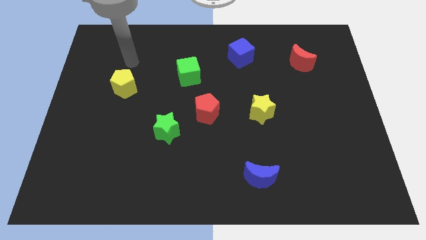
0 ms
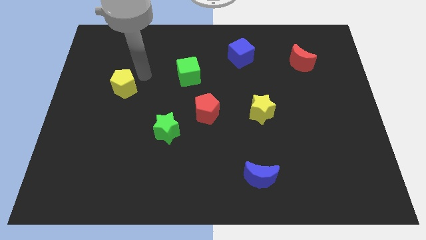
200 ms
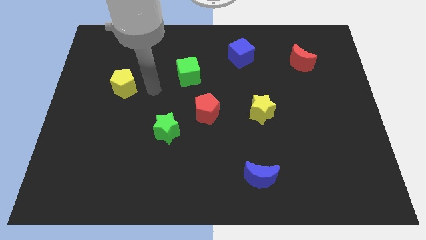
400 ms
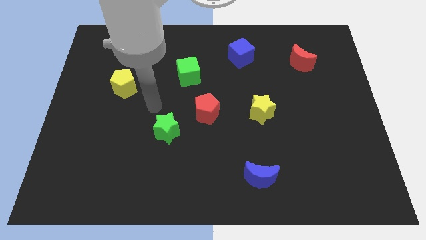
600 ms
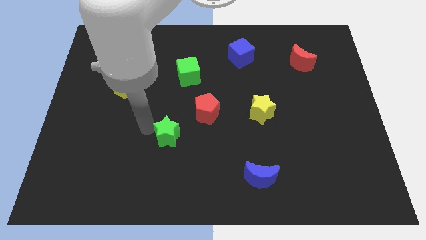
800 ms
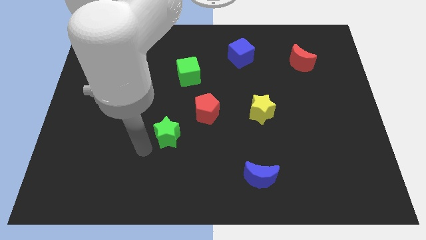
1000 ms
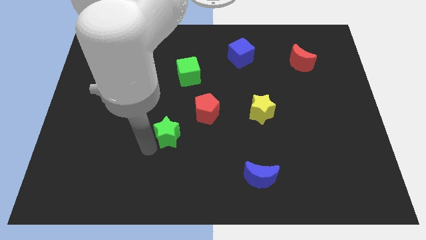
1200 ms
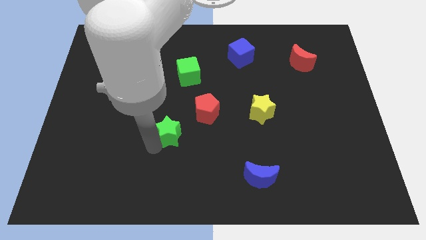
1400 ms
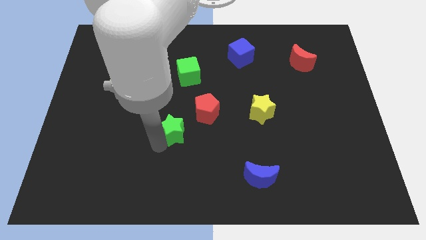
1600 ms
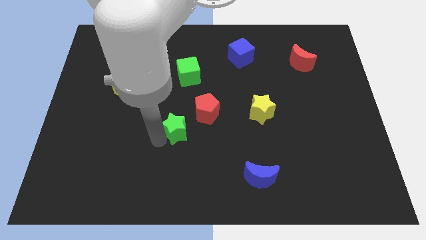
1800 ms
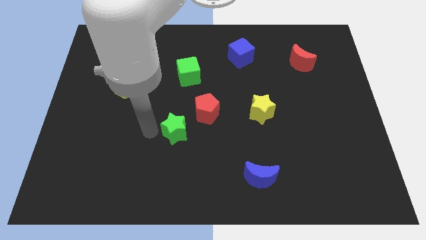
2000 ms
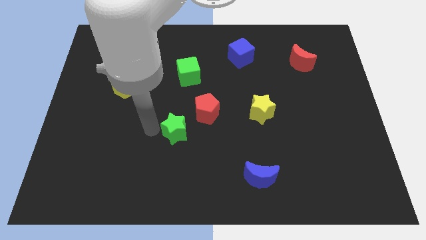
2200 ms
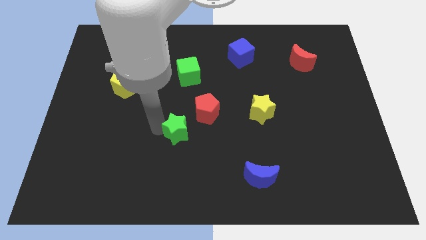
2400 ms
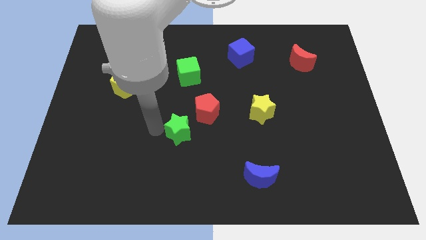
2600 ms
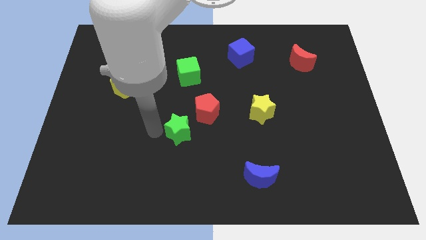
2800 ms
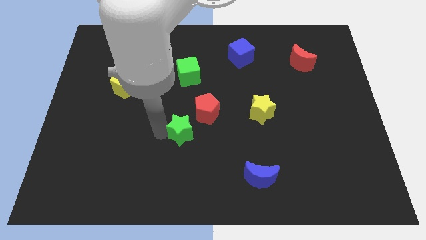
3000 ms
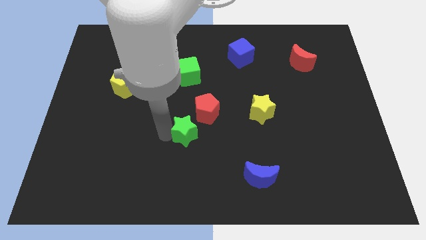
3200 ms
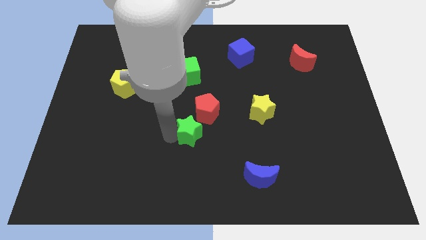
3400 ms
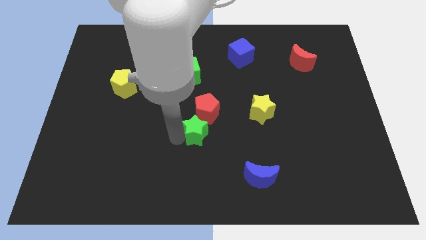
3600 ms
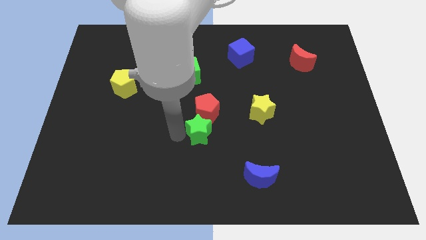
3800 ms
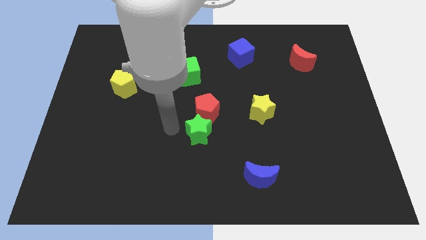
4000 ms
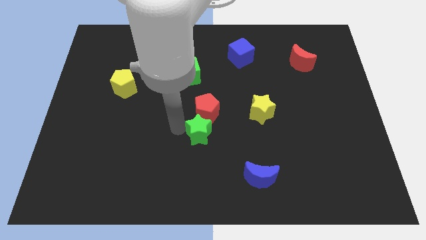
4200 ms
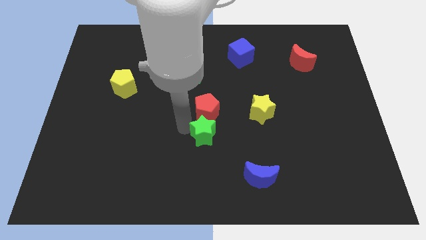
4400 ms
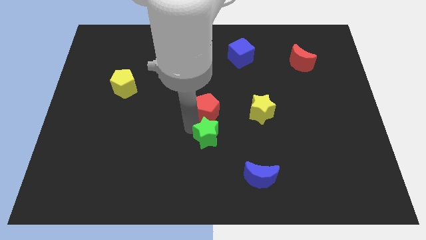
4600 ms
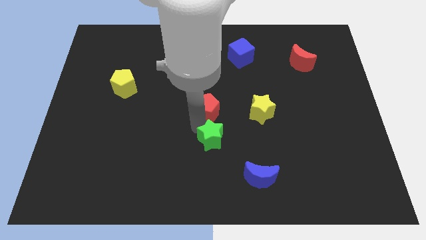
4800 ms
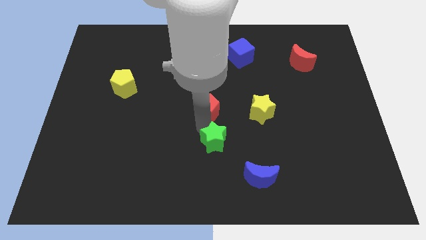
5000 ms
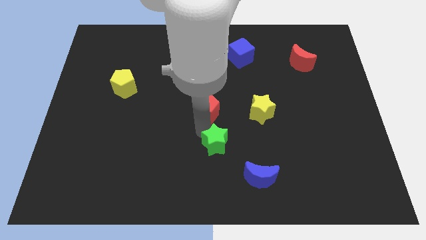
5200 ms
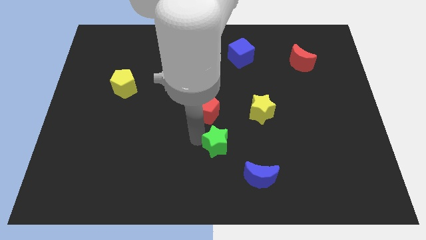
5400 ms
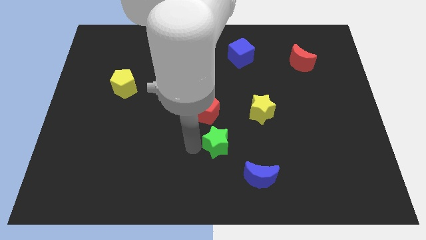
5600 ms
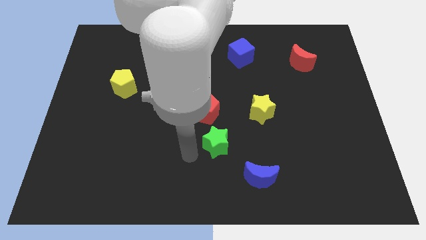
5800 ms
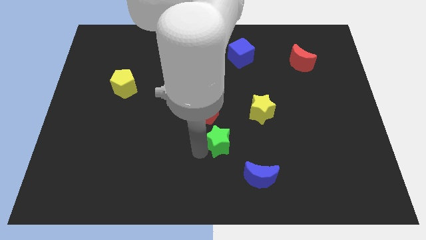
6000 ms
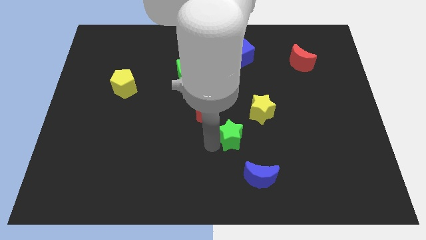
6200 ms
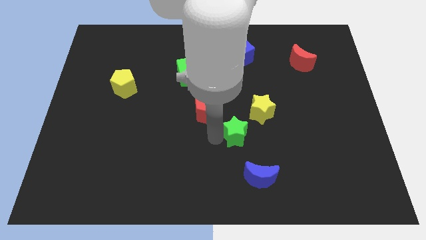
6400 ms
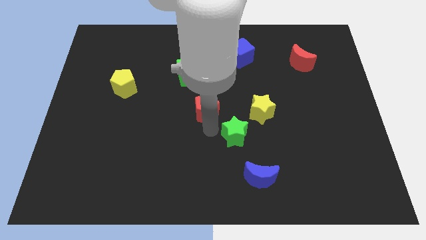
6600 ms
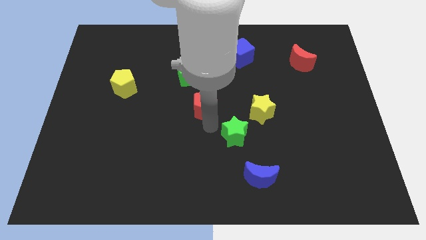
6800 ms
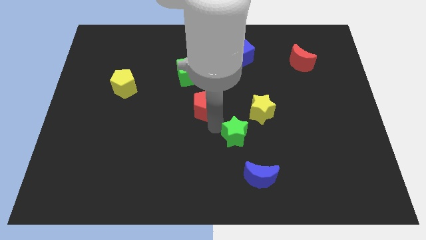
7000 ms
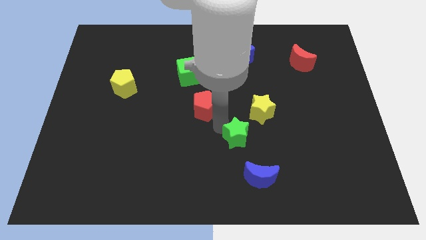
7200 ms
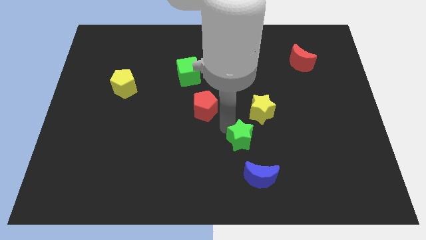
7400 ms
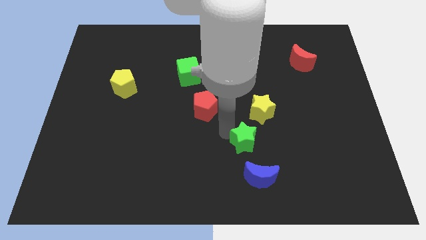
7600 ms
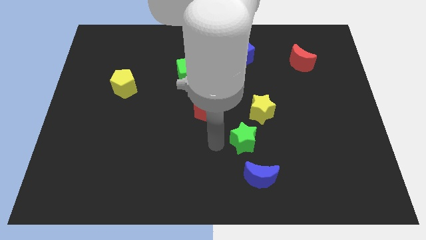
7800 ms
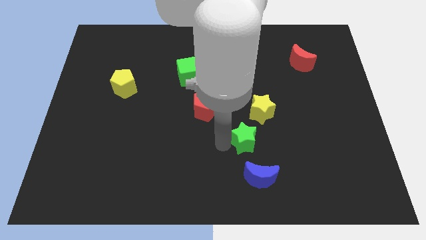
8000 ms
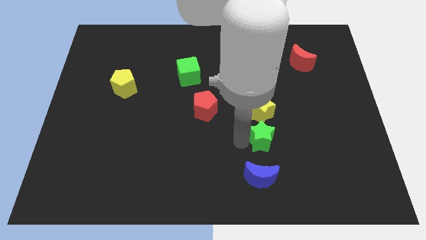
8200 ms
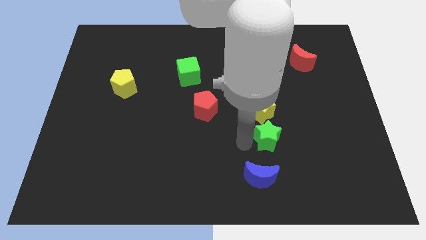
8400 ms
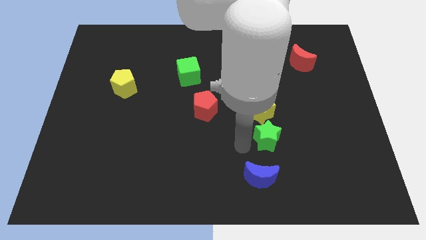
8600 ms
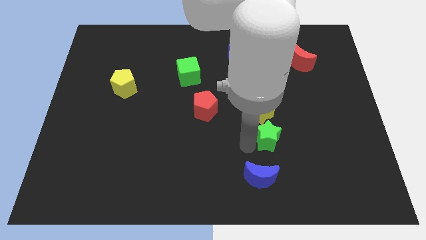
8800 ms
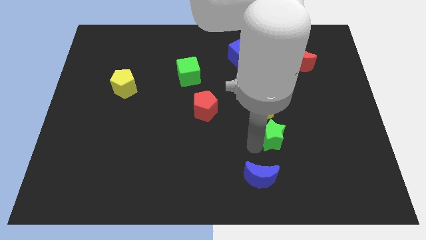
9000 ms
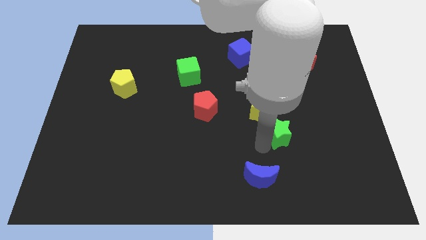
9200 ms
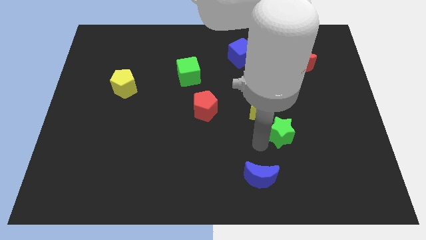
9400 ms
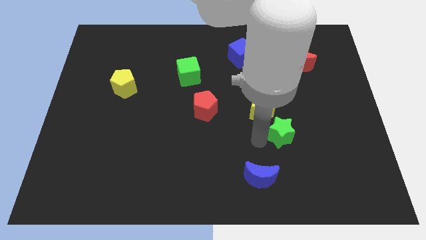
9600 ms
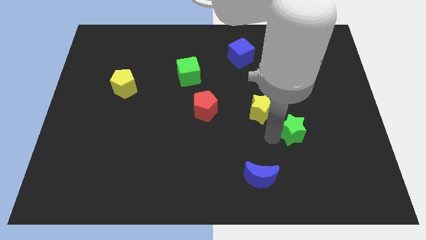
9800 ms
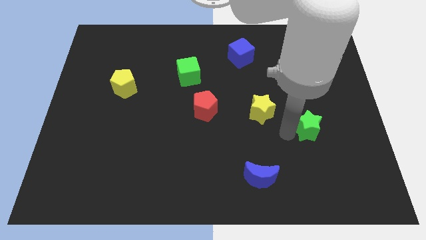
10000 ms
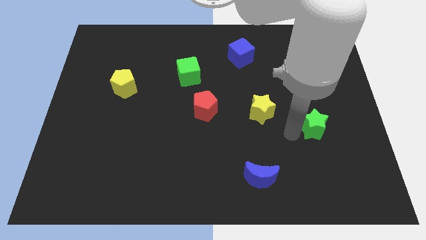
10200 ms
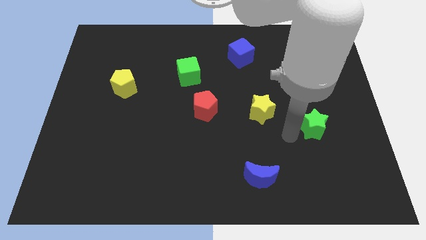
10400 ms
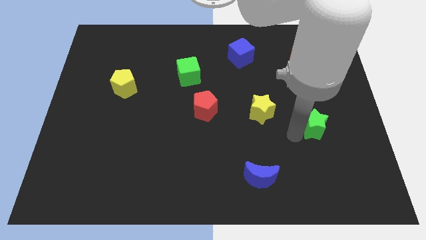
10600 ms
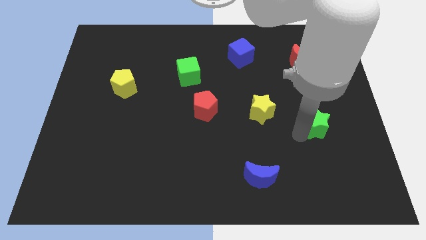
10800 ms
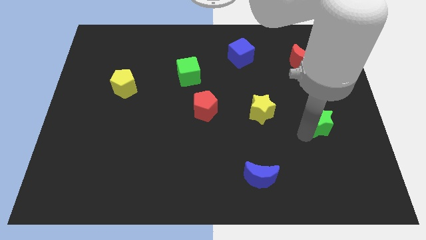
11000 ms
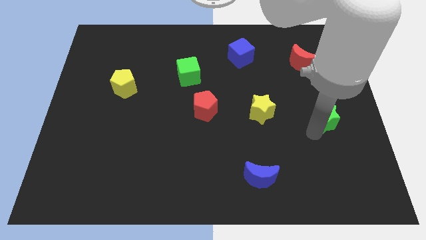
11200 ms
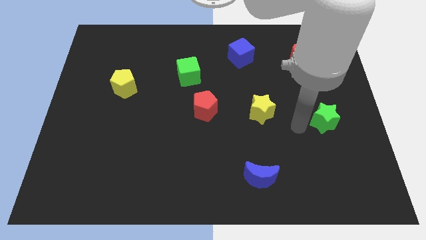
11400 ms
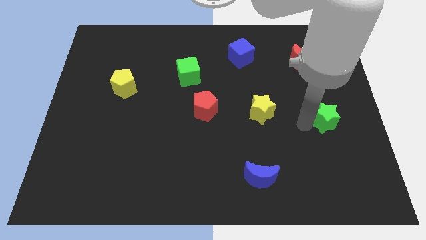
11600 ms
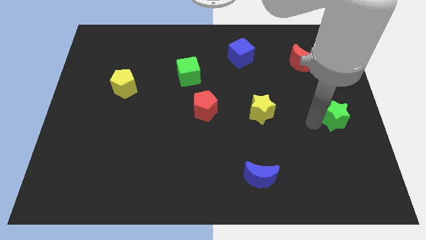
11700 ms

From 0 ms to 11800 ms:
push the green star to the center right
